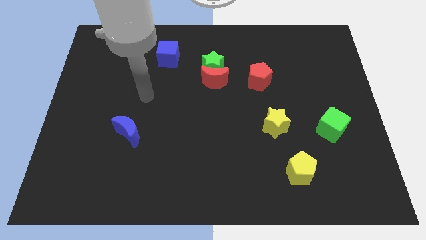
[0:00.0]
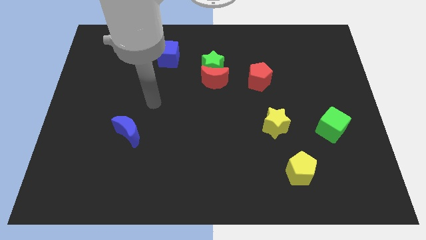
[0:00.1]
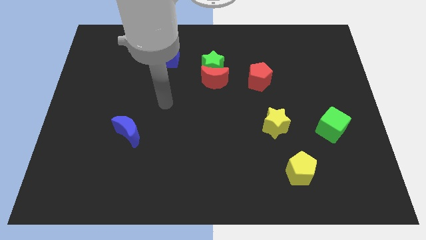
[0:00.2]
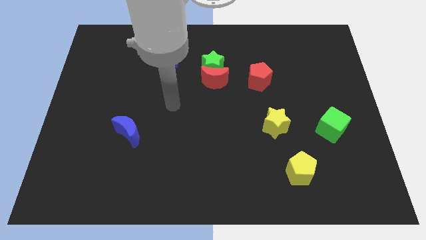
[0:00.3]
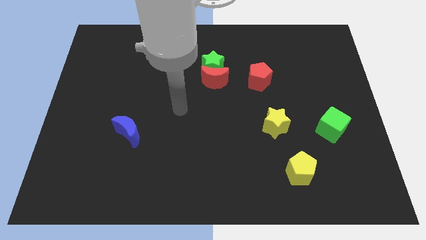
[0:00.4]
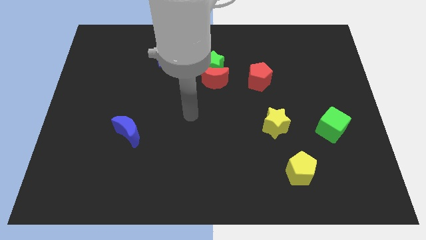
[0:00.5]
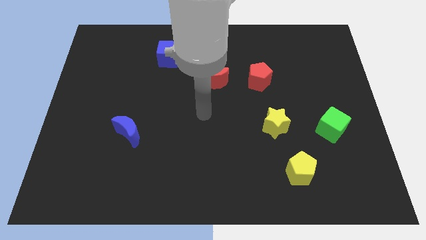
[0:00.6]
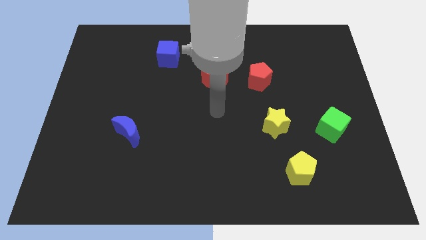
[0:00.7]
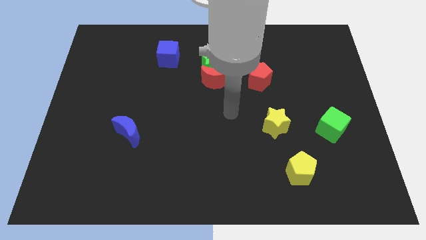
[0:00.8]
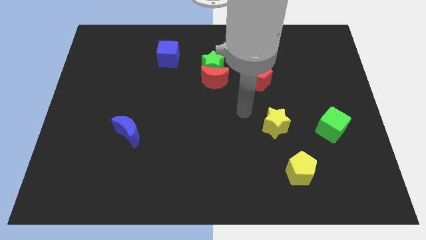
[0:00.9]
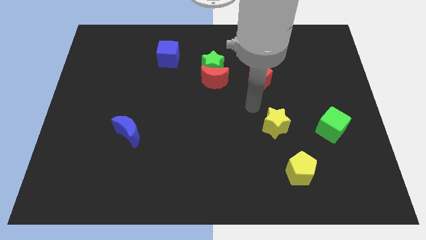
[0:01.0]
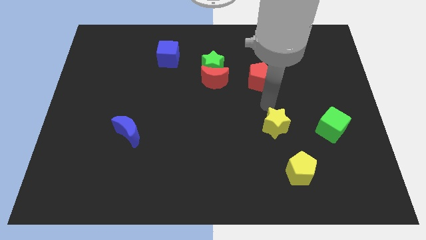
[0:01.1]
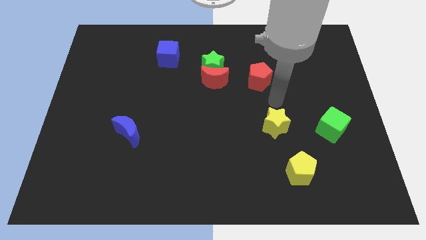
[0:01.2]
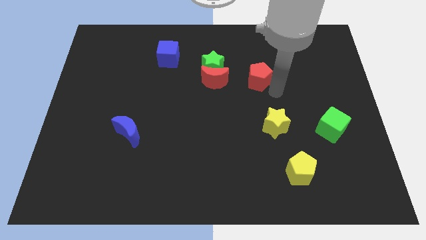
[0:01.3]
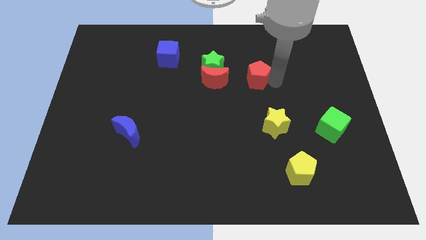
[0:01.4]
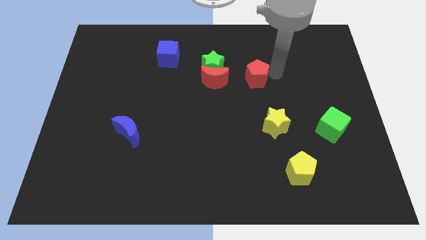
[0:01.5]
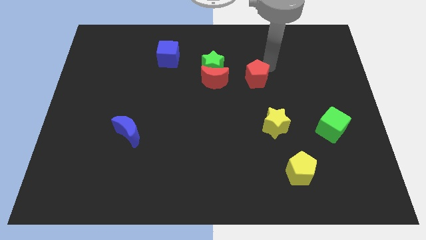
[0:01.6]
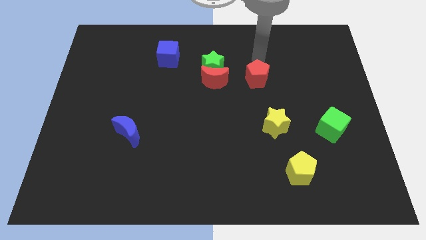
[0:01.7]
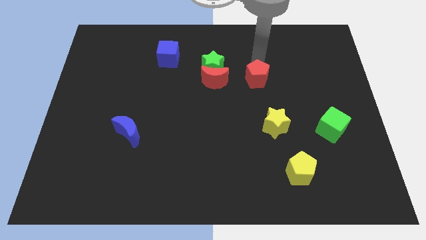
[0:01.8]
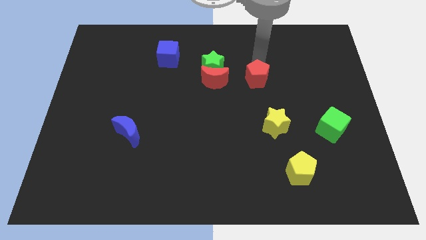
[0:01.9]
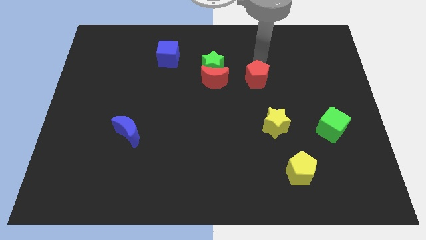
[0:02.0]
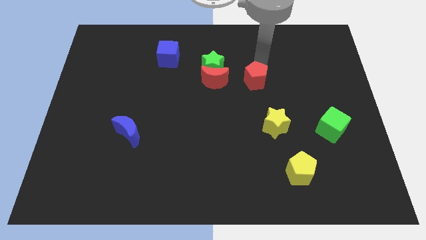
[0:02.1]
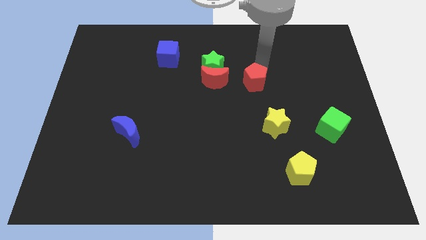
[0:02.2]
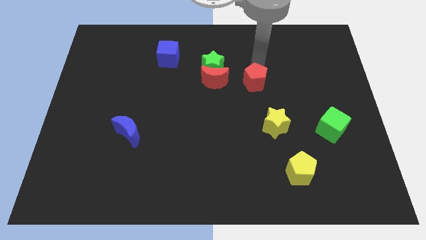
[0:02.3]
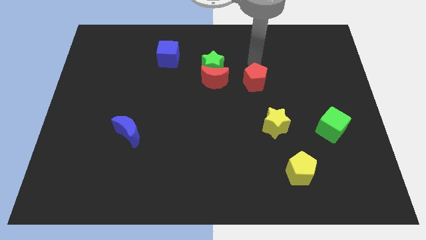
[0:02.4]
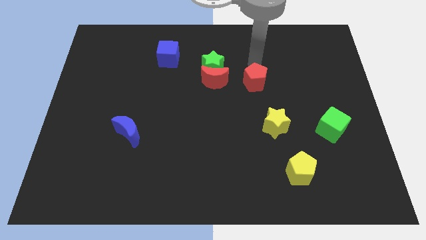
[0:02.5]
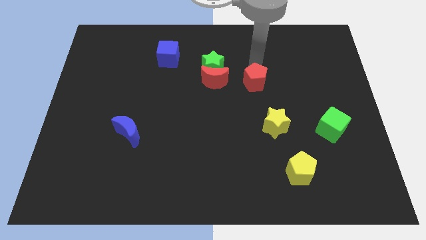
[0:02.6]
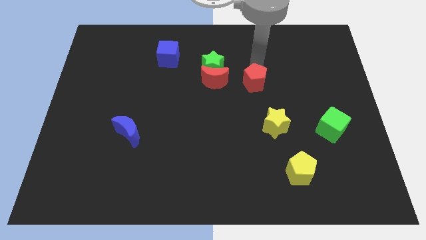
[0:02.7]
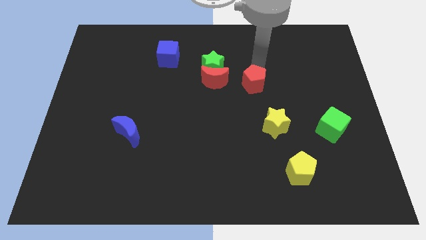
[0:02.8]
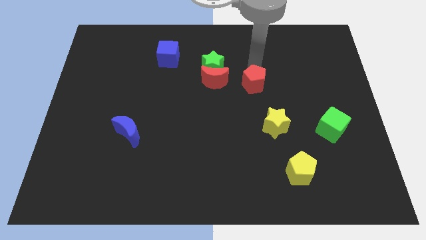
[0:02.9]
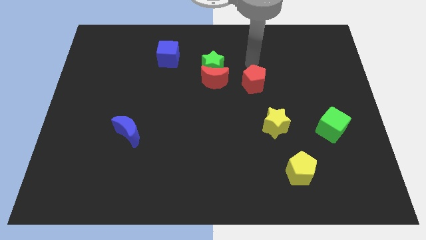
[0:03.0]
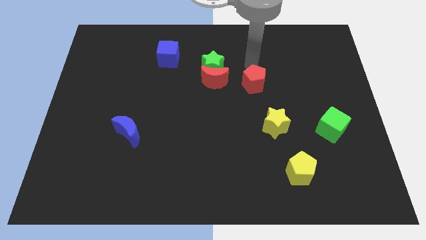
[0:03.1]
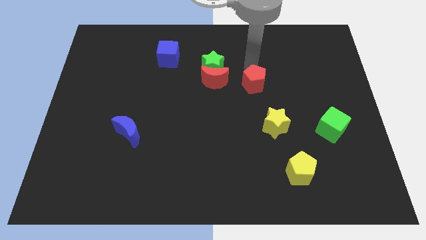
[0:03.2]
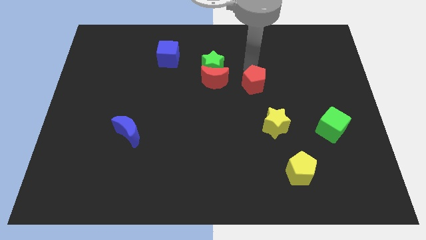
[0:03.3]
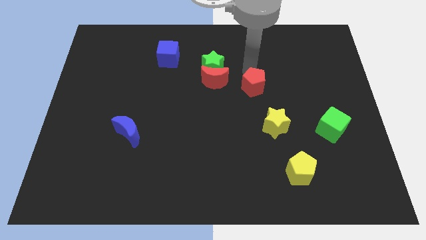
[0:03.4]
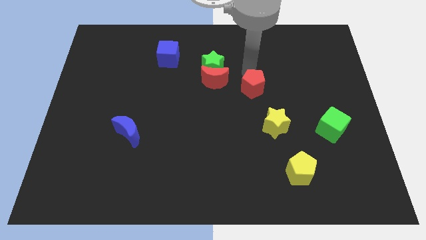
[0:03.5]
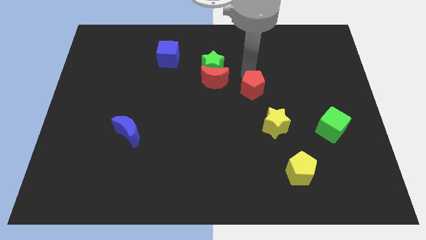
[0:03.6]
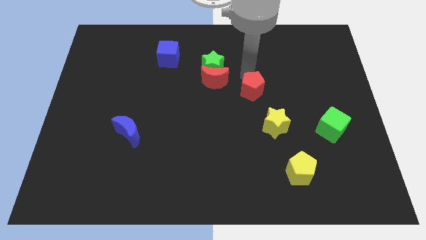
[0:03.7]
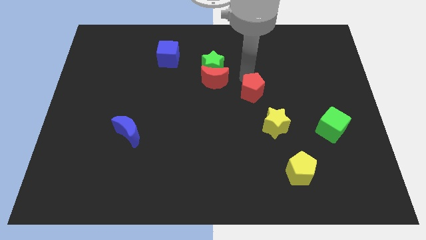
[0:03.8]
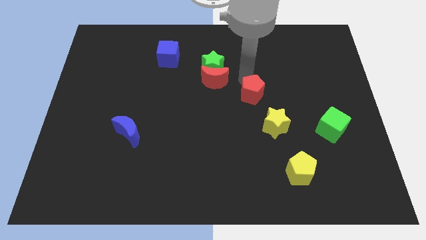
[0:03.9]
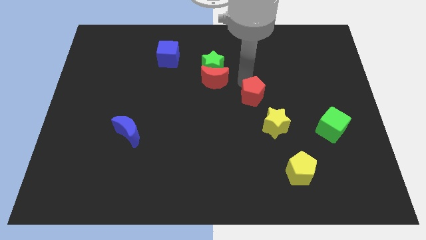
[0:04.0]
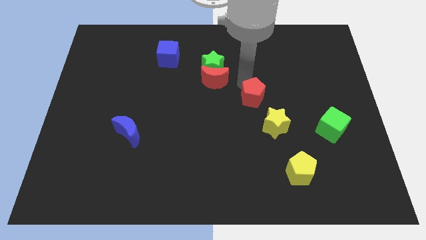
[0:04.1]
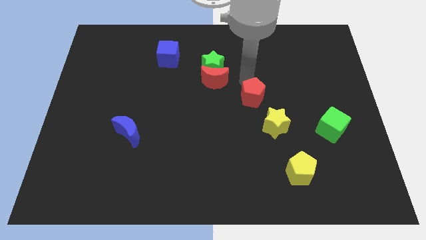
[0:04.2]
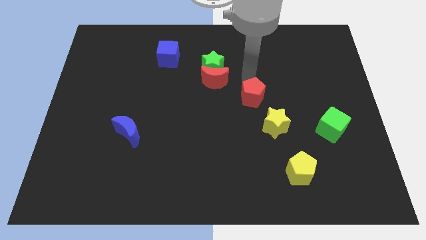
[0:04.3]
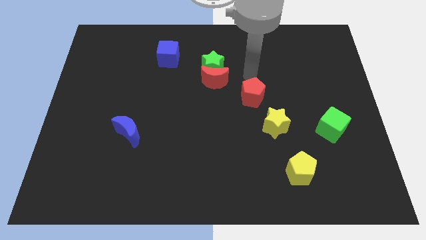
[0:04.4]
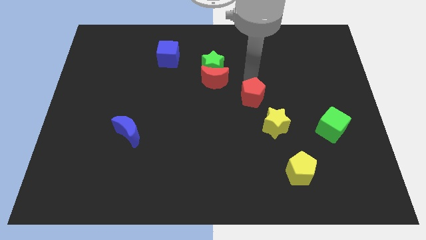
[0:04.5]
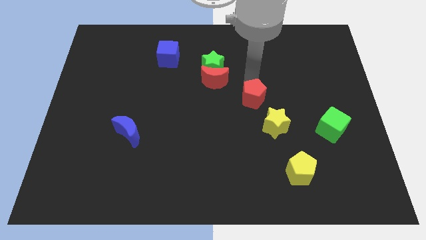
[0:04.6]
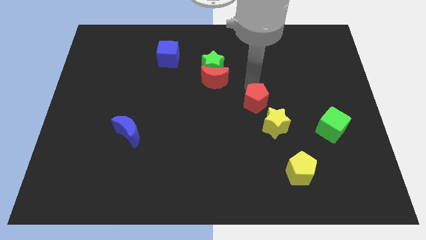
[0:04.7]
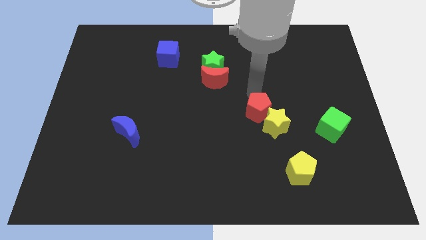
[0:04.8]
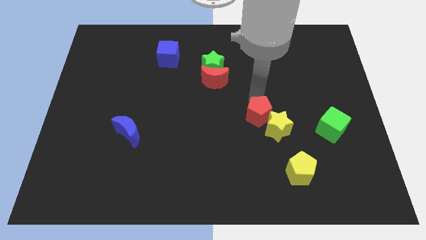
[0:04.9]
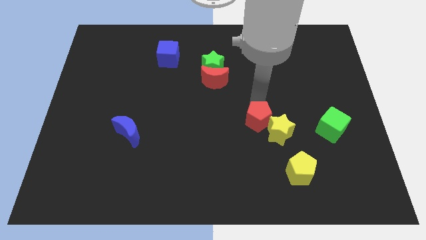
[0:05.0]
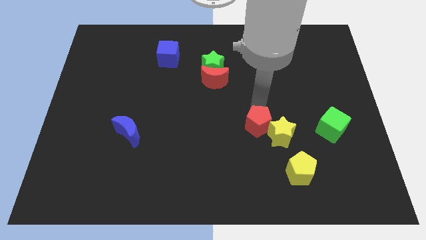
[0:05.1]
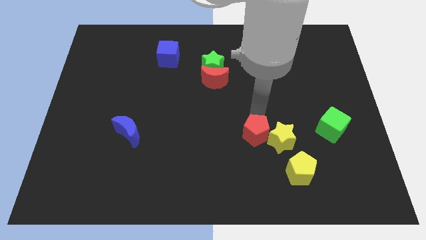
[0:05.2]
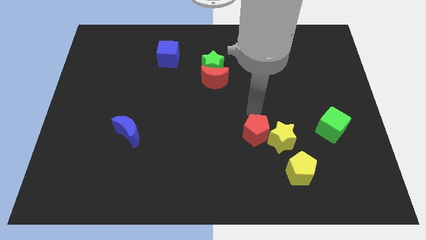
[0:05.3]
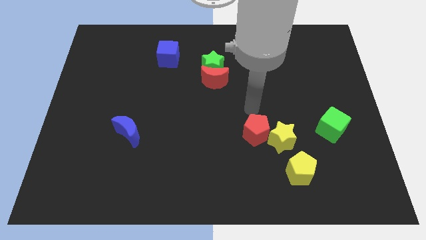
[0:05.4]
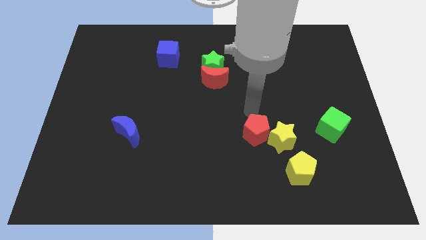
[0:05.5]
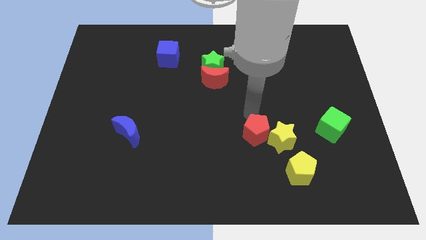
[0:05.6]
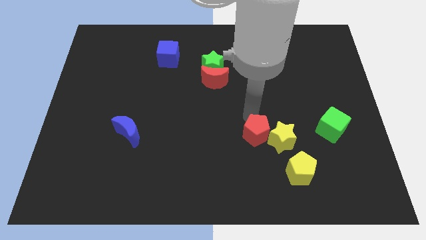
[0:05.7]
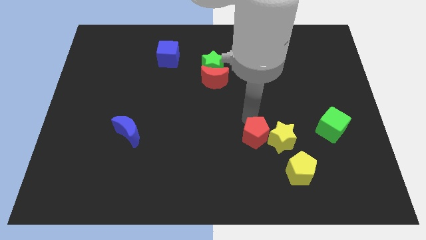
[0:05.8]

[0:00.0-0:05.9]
put the red pentagon diagonally down and to the left of the yellow star

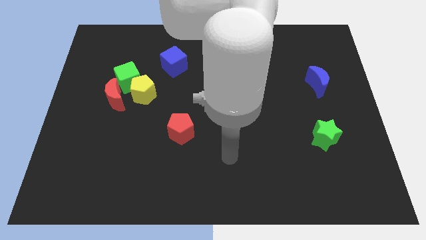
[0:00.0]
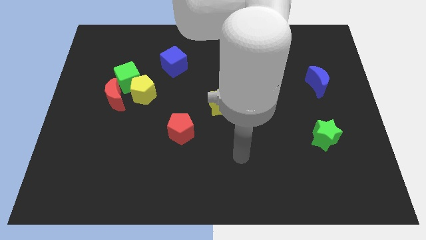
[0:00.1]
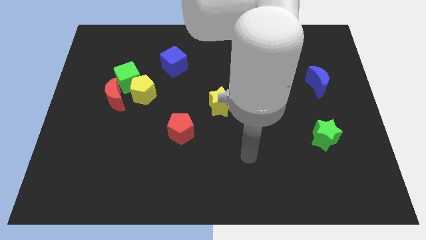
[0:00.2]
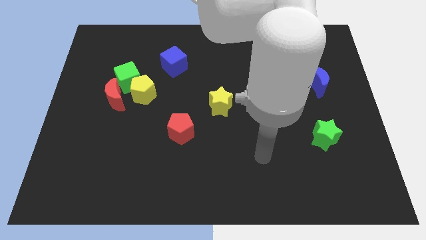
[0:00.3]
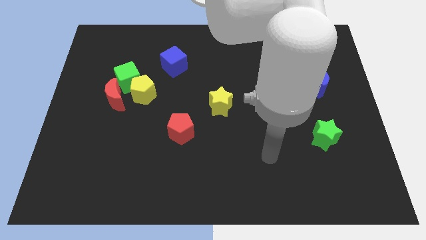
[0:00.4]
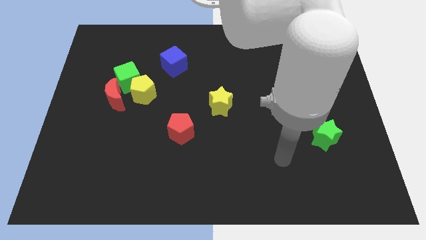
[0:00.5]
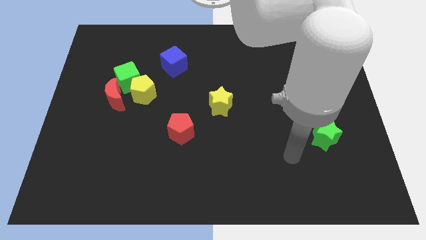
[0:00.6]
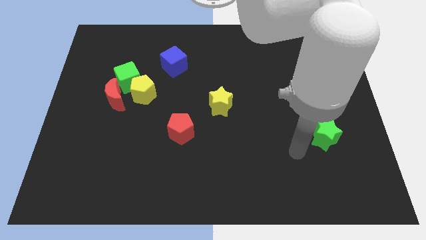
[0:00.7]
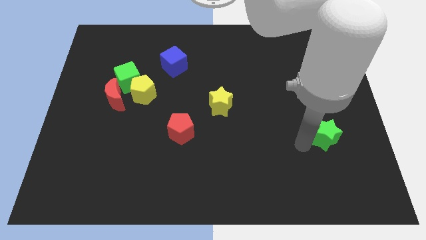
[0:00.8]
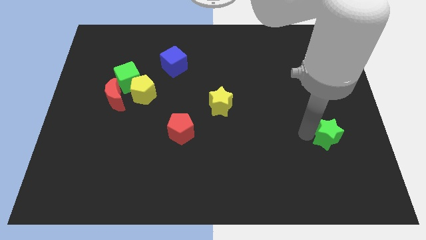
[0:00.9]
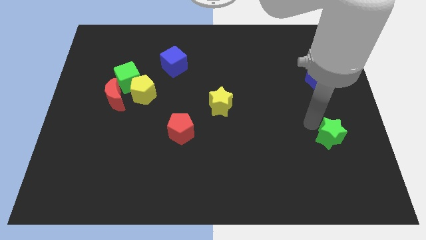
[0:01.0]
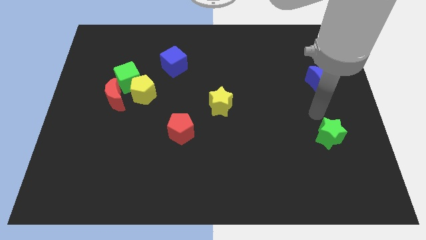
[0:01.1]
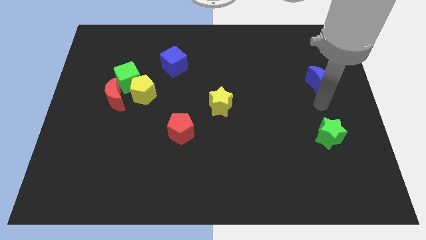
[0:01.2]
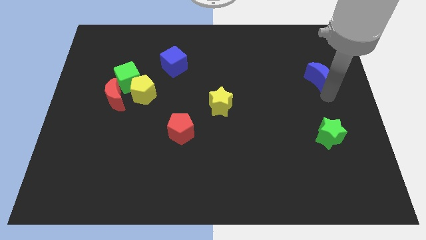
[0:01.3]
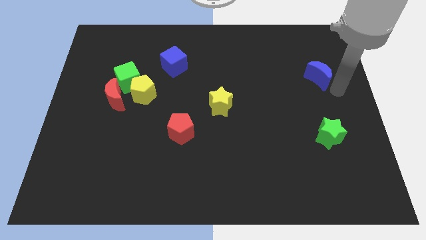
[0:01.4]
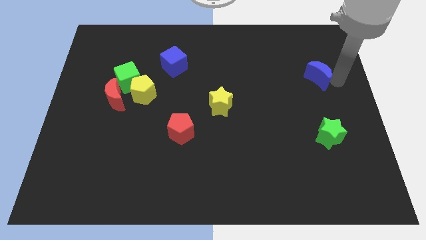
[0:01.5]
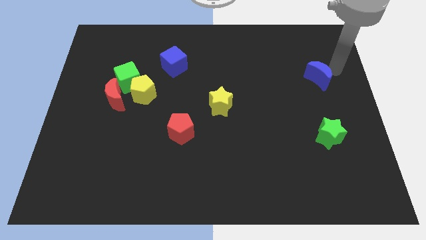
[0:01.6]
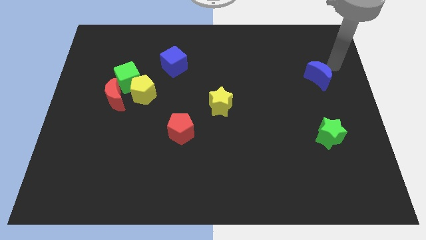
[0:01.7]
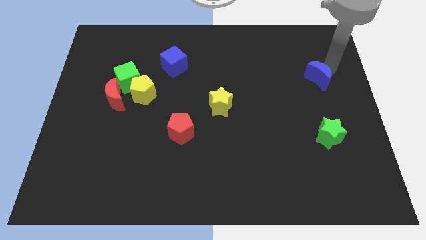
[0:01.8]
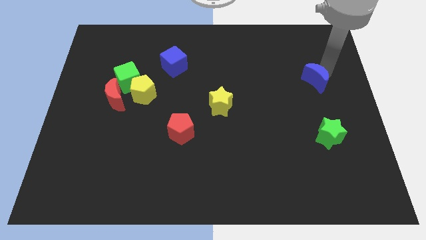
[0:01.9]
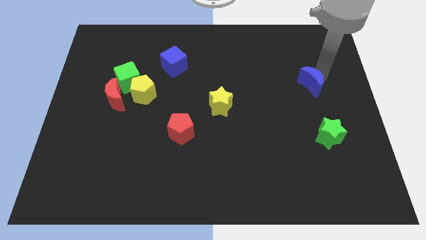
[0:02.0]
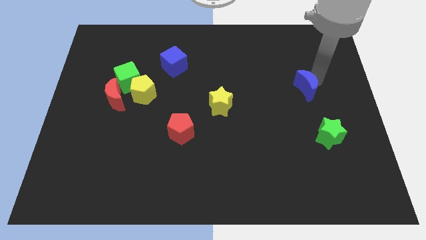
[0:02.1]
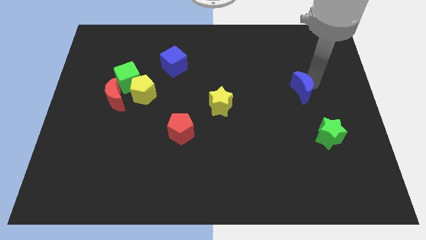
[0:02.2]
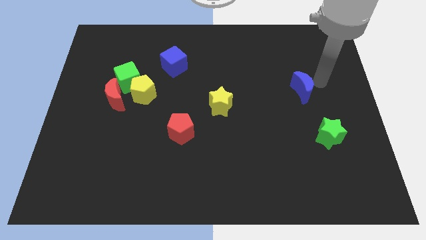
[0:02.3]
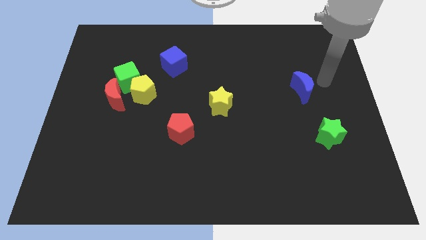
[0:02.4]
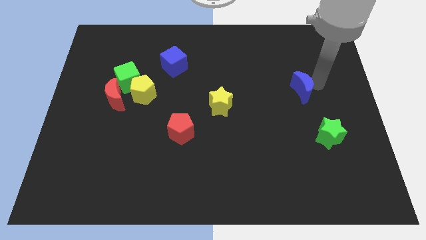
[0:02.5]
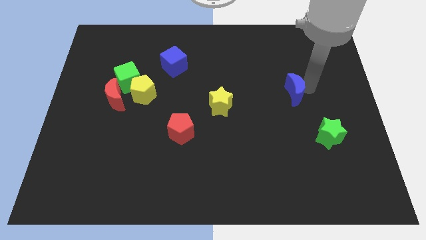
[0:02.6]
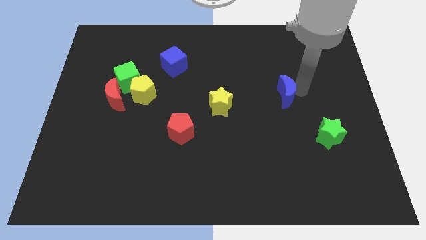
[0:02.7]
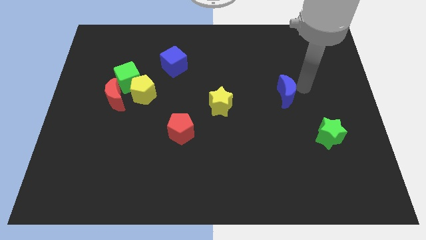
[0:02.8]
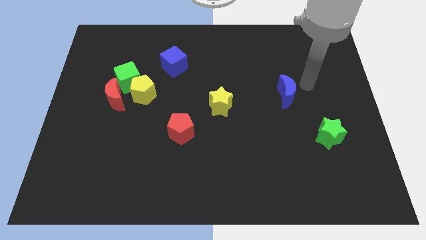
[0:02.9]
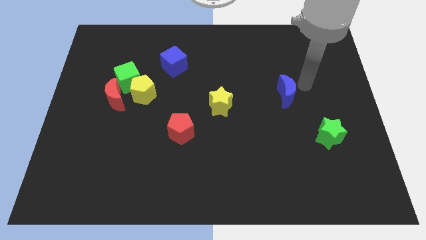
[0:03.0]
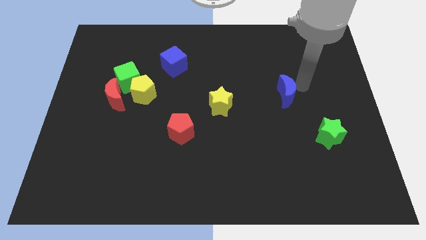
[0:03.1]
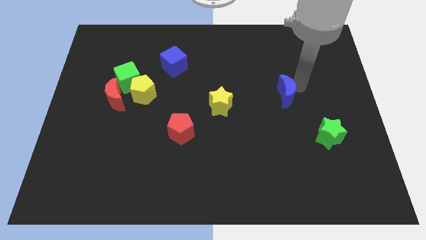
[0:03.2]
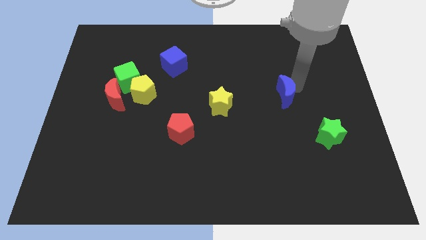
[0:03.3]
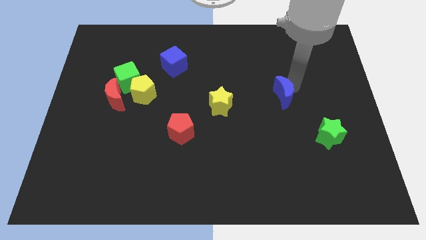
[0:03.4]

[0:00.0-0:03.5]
put the blue moon right of the yellow star
